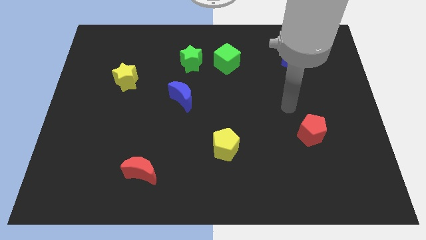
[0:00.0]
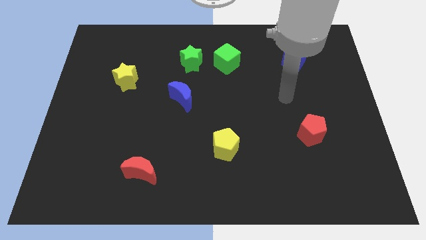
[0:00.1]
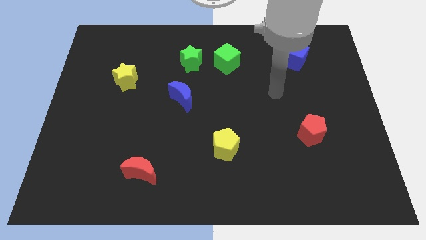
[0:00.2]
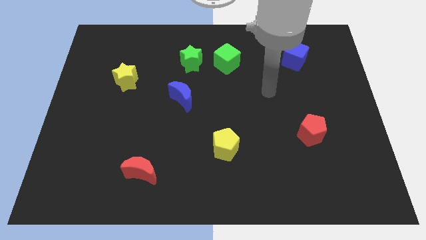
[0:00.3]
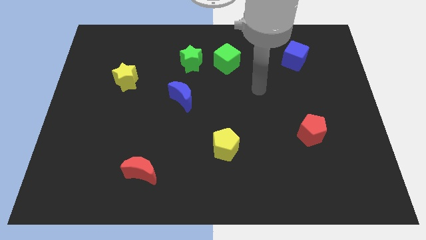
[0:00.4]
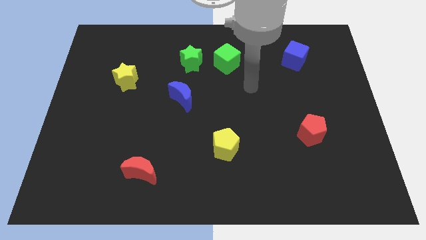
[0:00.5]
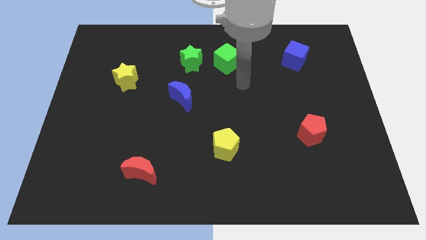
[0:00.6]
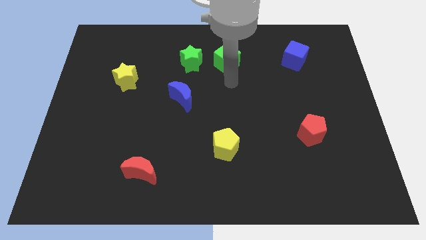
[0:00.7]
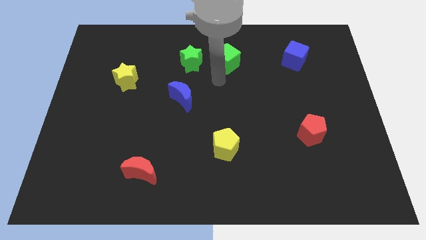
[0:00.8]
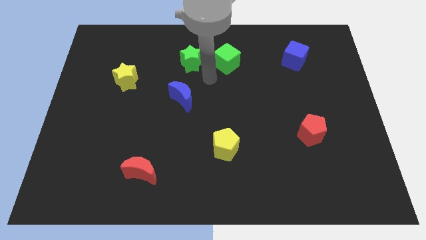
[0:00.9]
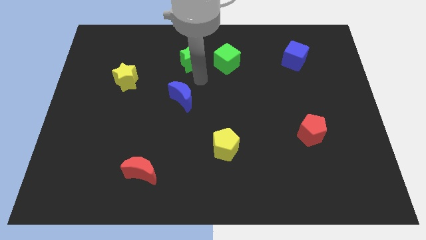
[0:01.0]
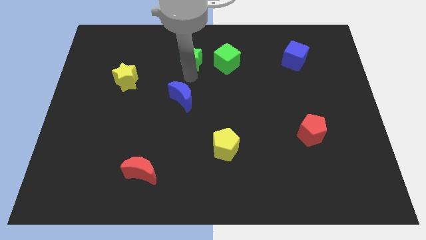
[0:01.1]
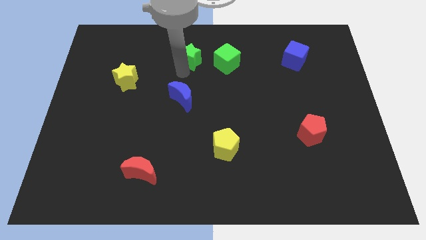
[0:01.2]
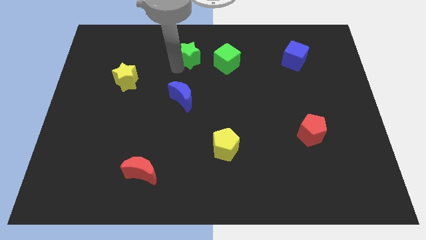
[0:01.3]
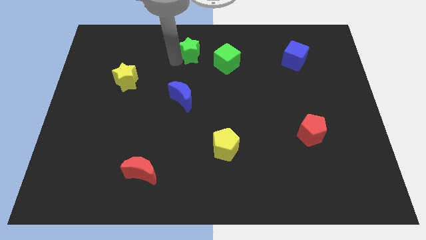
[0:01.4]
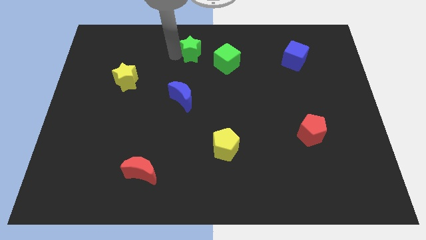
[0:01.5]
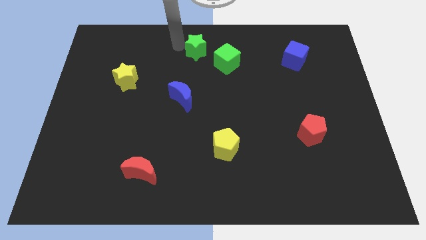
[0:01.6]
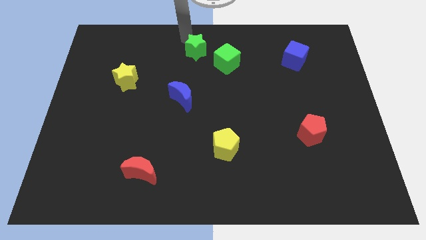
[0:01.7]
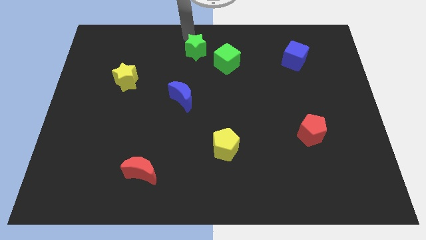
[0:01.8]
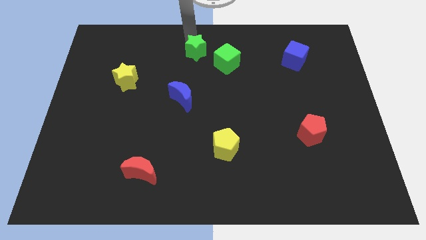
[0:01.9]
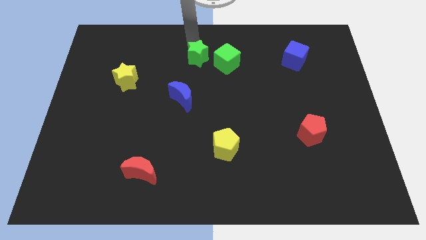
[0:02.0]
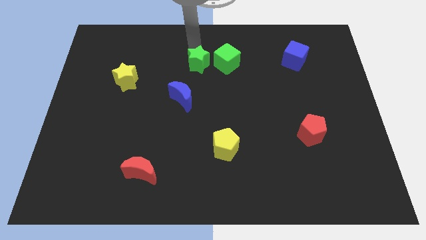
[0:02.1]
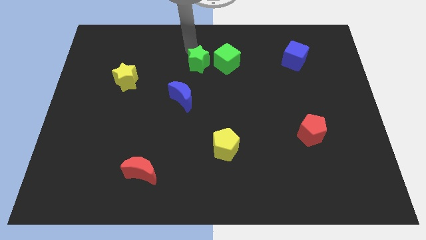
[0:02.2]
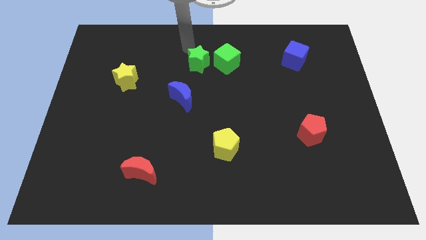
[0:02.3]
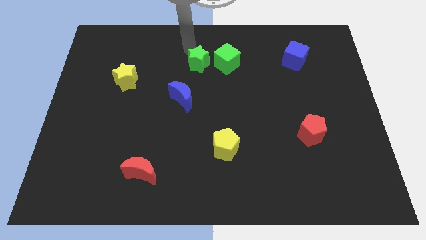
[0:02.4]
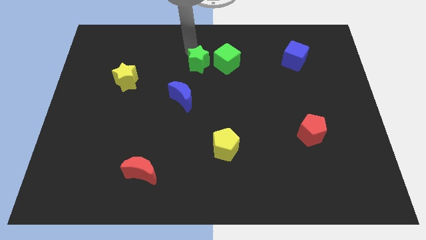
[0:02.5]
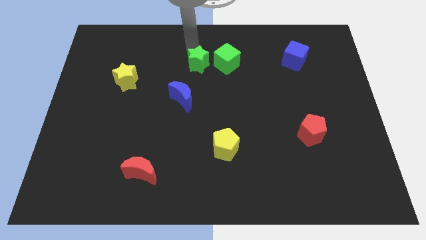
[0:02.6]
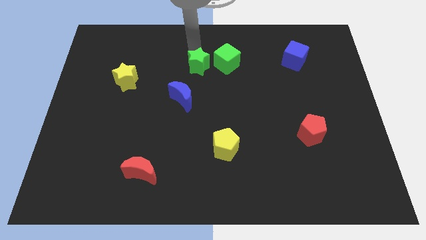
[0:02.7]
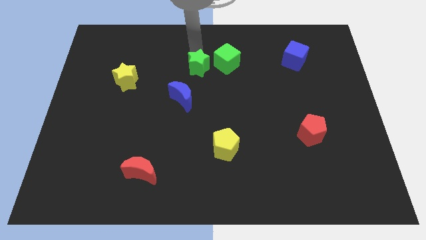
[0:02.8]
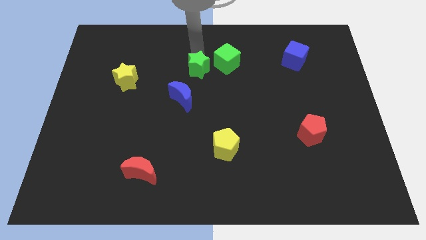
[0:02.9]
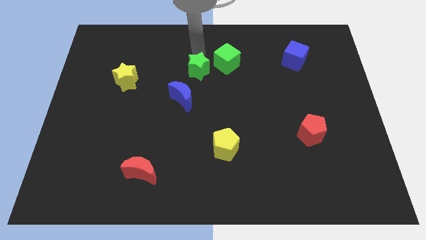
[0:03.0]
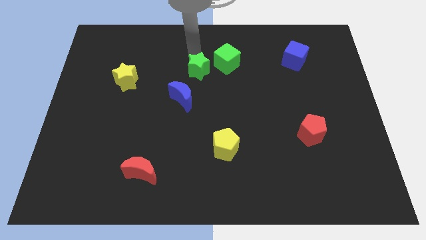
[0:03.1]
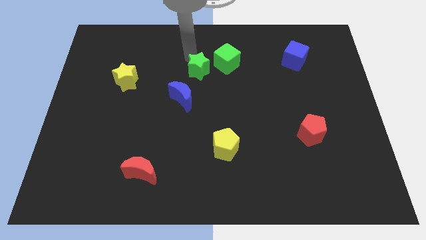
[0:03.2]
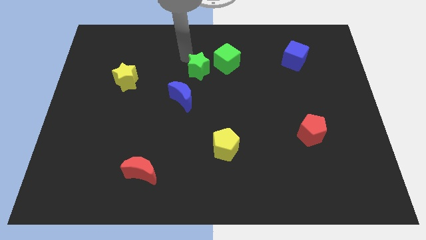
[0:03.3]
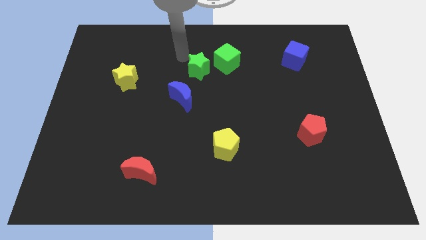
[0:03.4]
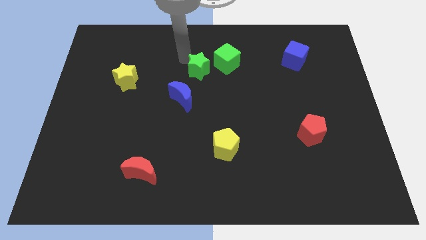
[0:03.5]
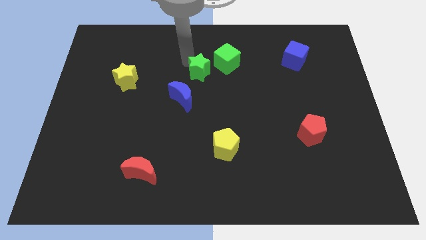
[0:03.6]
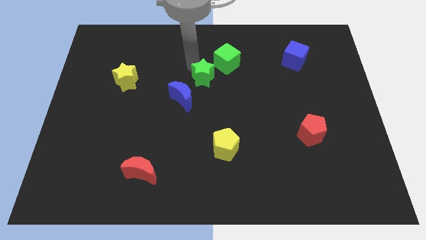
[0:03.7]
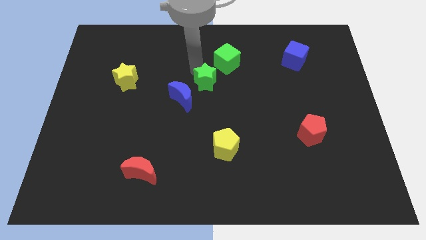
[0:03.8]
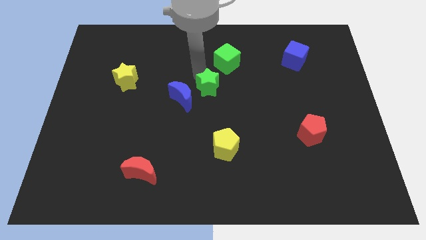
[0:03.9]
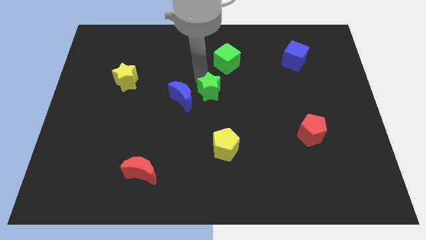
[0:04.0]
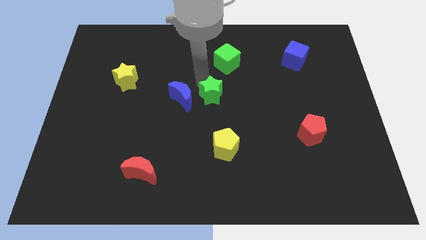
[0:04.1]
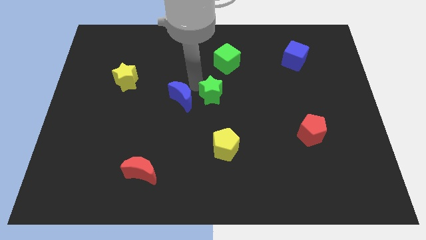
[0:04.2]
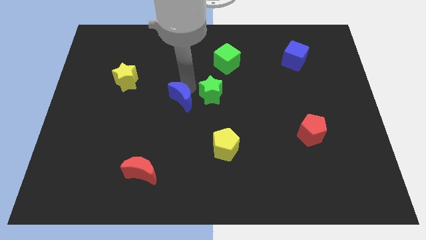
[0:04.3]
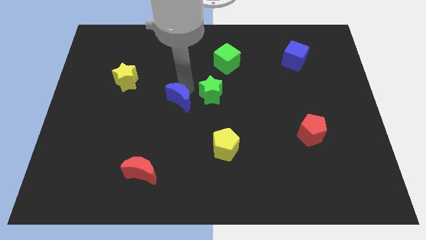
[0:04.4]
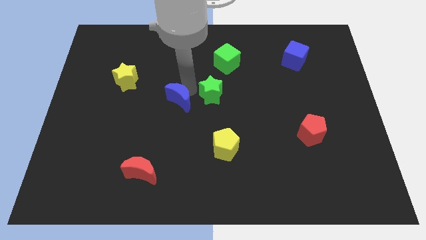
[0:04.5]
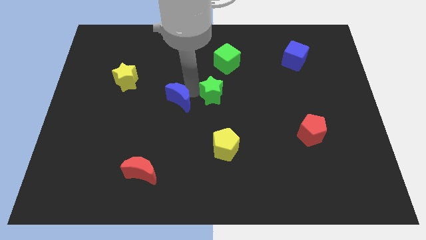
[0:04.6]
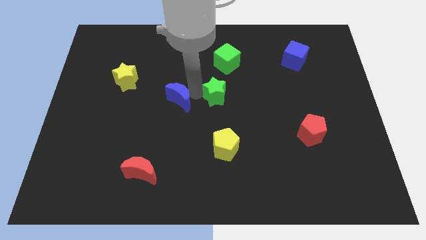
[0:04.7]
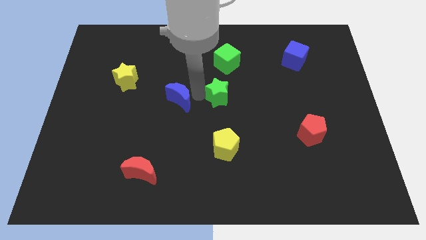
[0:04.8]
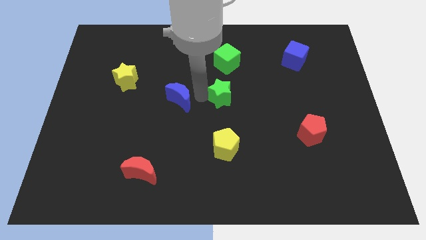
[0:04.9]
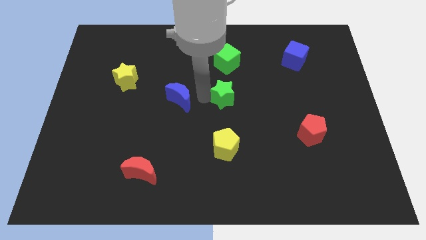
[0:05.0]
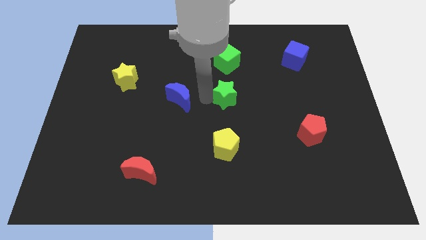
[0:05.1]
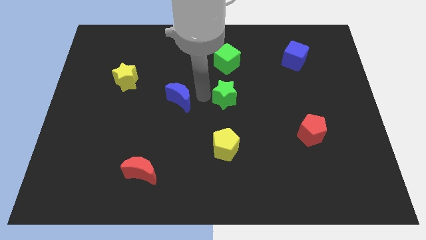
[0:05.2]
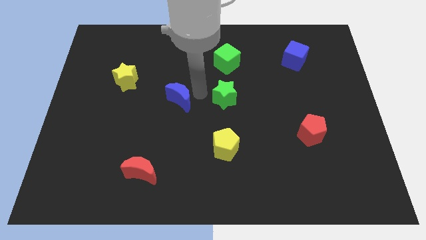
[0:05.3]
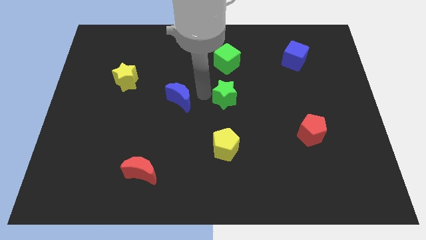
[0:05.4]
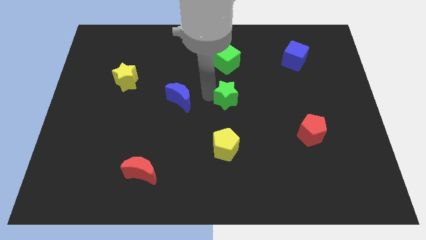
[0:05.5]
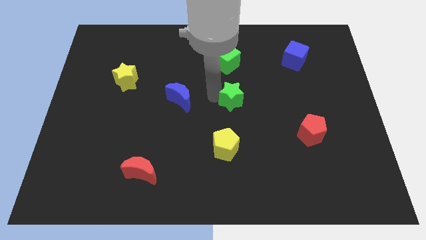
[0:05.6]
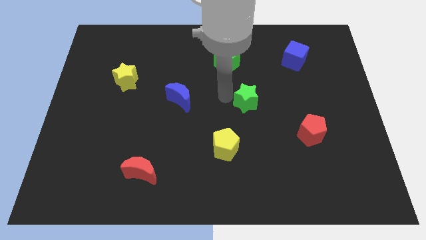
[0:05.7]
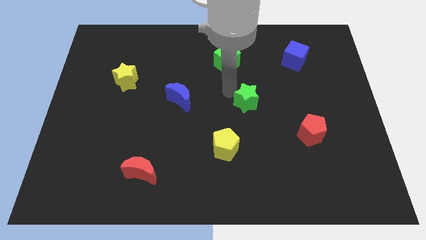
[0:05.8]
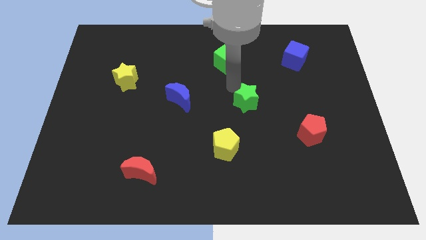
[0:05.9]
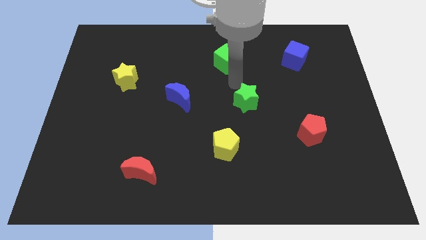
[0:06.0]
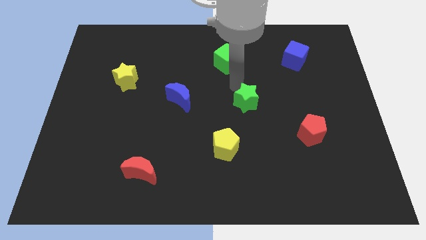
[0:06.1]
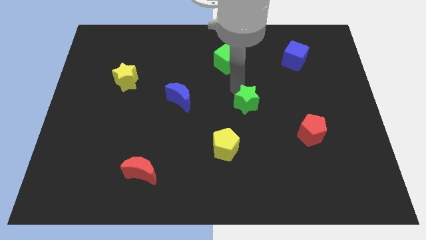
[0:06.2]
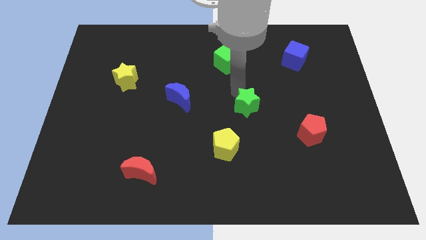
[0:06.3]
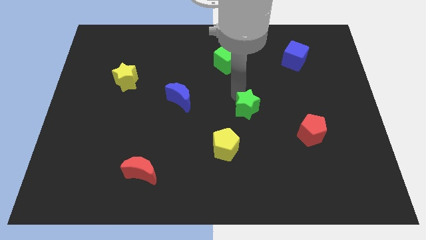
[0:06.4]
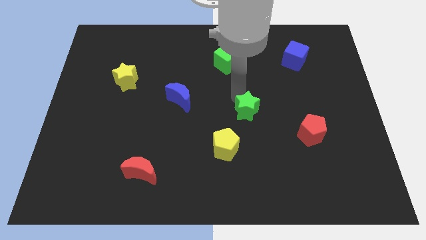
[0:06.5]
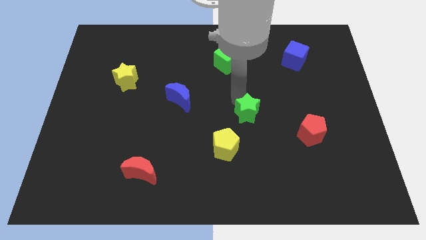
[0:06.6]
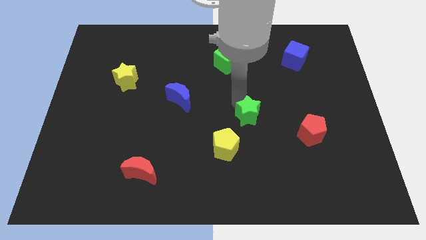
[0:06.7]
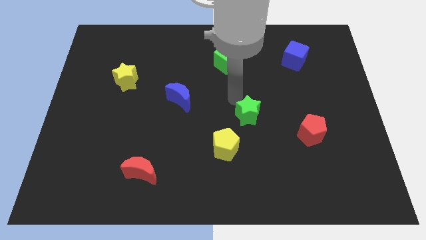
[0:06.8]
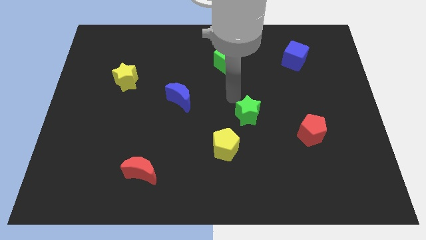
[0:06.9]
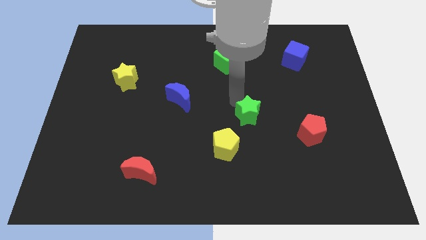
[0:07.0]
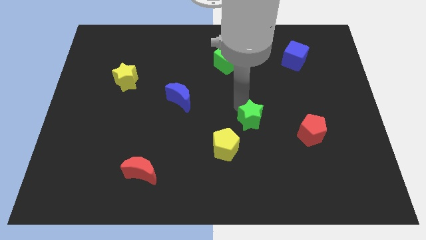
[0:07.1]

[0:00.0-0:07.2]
push the green star to the left side of the red pentagon

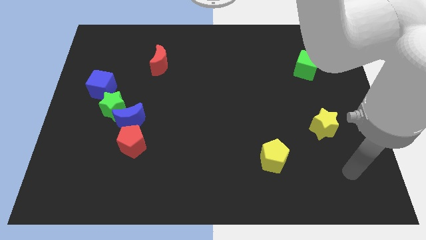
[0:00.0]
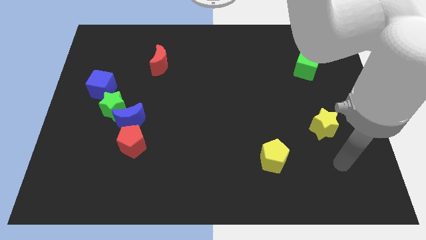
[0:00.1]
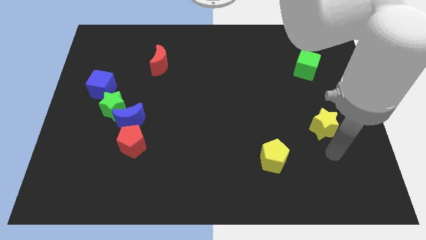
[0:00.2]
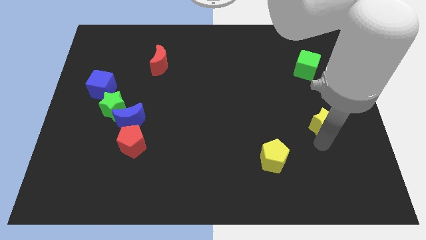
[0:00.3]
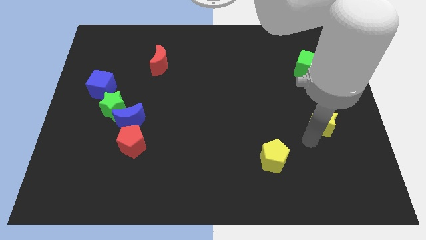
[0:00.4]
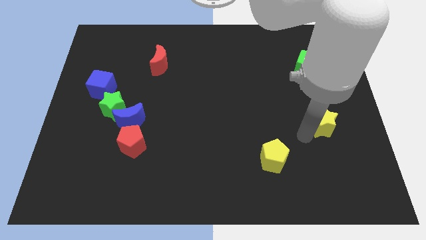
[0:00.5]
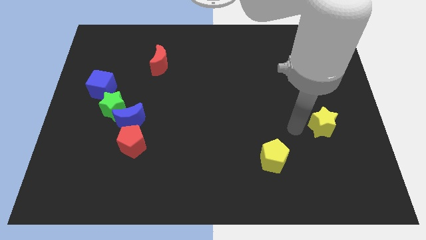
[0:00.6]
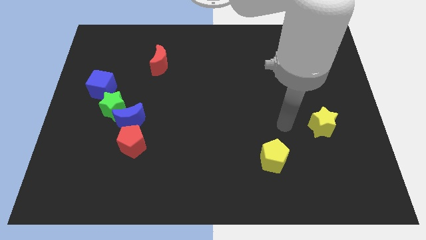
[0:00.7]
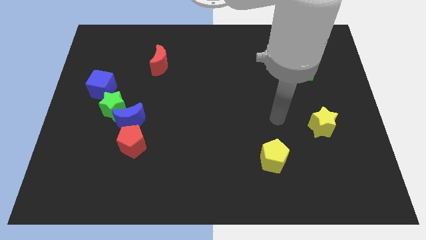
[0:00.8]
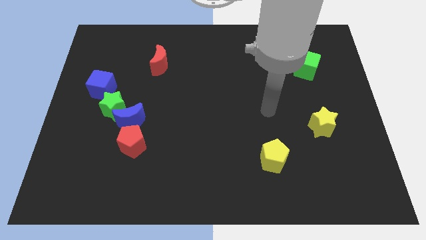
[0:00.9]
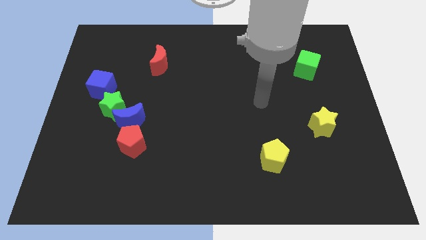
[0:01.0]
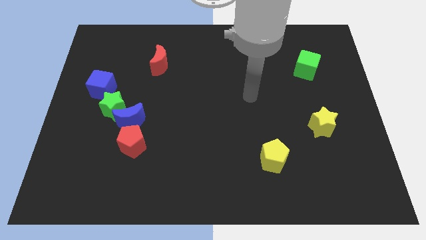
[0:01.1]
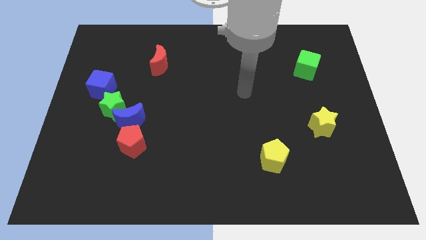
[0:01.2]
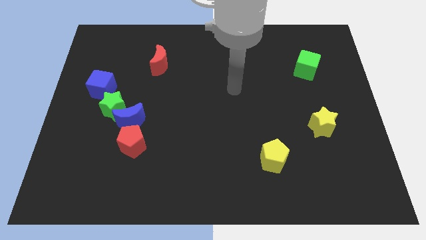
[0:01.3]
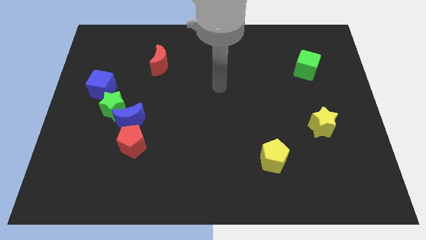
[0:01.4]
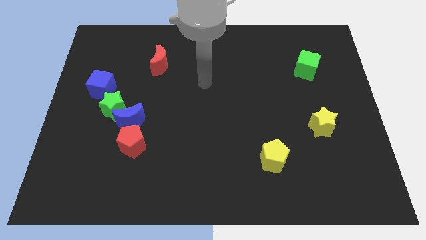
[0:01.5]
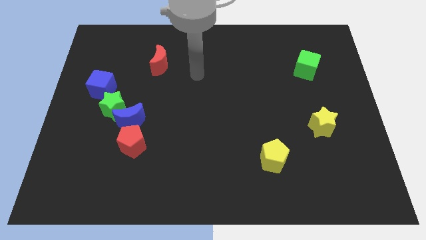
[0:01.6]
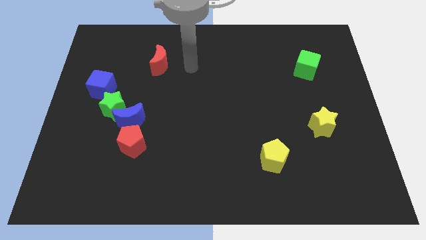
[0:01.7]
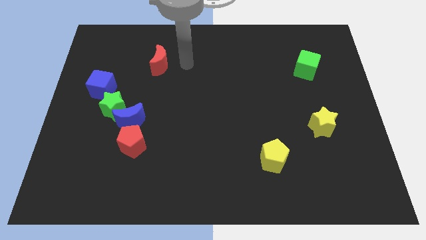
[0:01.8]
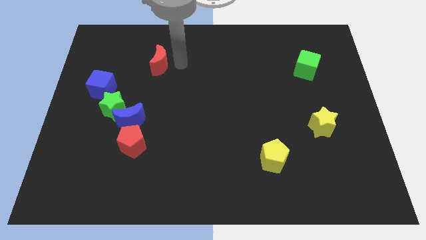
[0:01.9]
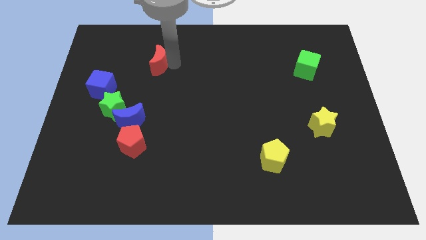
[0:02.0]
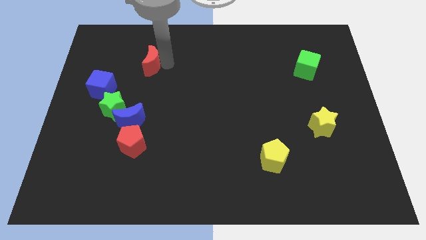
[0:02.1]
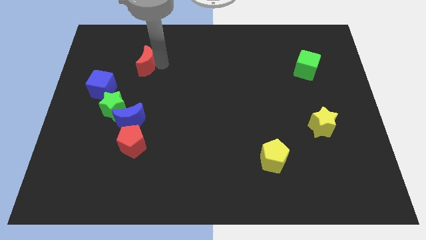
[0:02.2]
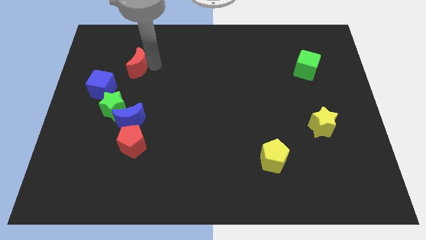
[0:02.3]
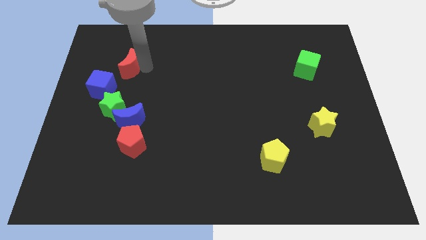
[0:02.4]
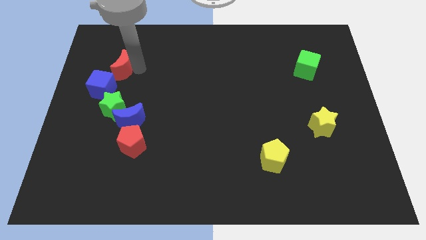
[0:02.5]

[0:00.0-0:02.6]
move the red moon above the blue cube
